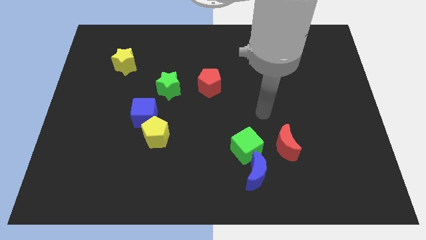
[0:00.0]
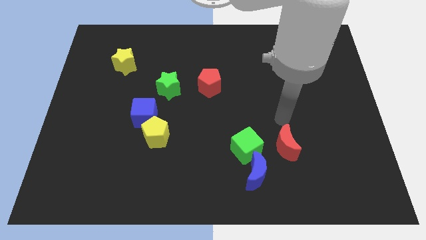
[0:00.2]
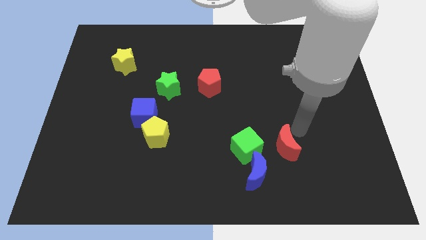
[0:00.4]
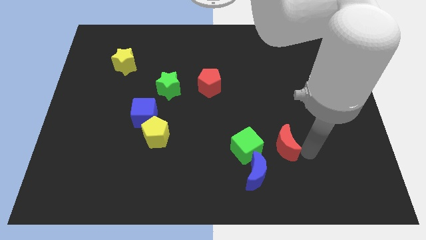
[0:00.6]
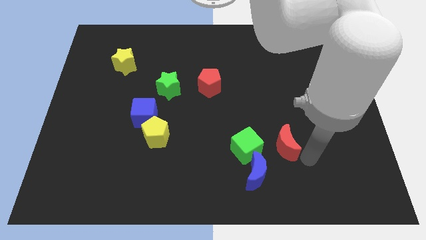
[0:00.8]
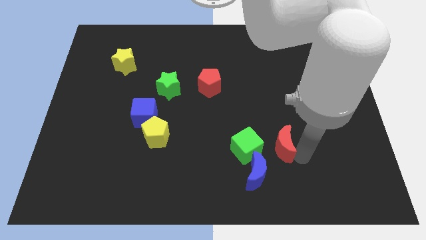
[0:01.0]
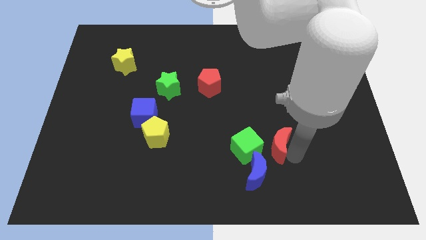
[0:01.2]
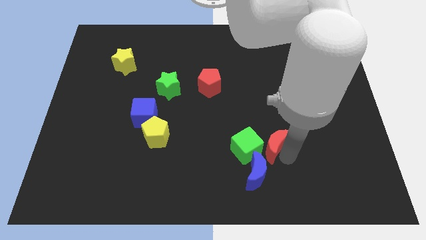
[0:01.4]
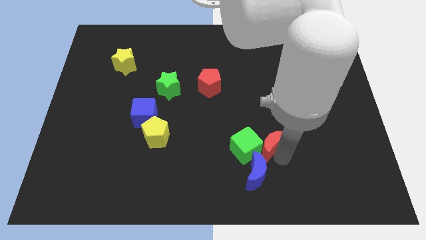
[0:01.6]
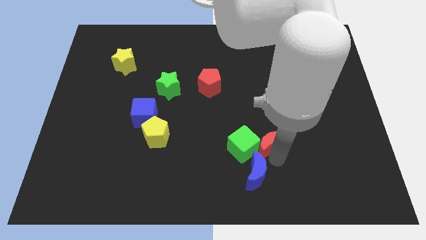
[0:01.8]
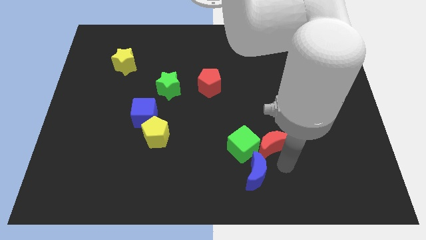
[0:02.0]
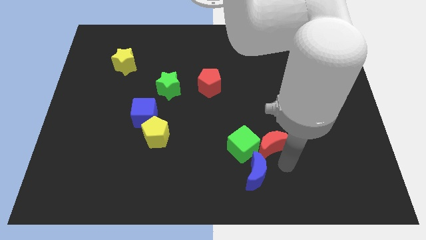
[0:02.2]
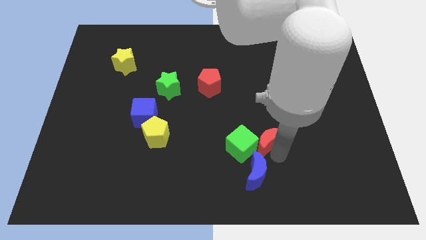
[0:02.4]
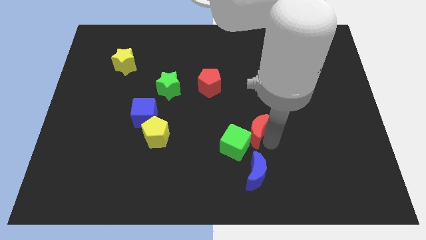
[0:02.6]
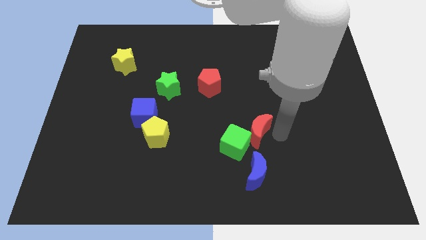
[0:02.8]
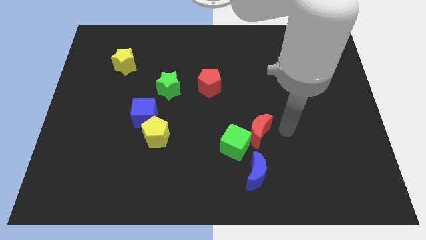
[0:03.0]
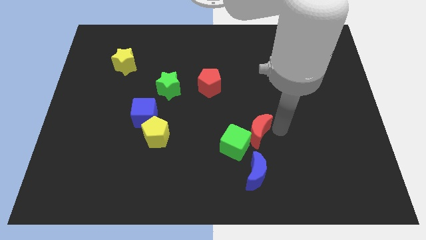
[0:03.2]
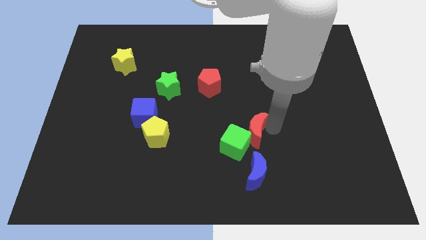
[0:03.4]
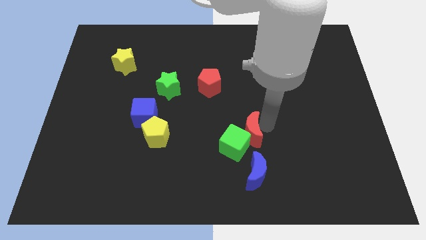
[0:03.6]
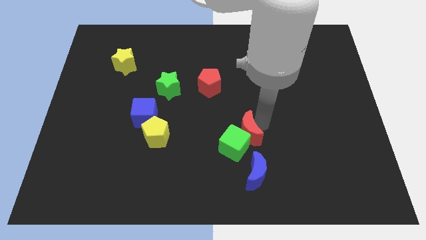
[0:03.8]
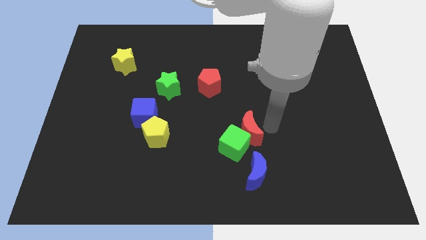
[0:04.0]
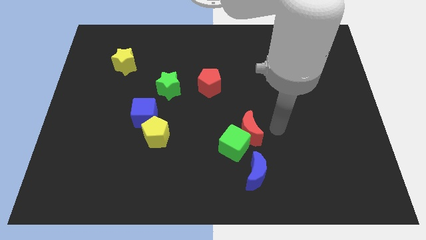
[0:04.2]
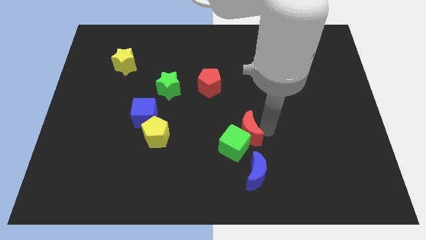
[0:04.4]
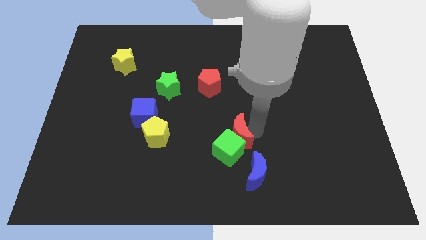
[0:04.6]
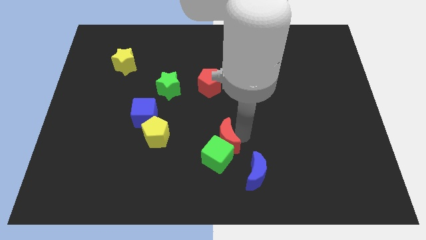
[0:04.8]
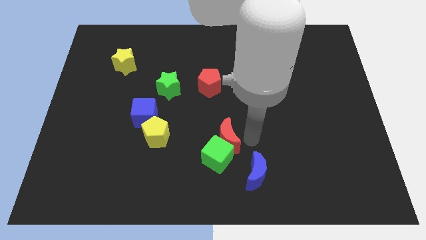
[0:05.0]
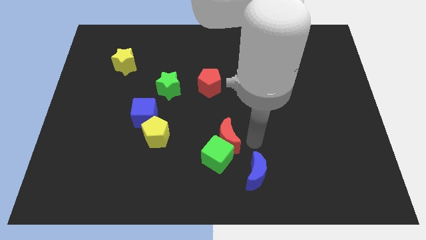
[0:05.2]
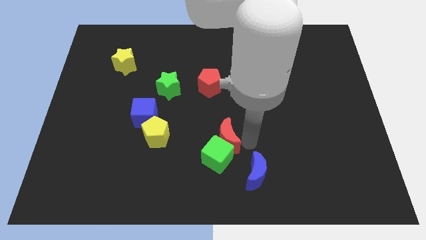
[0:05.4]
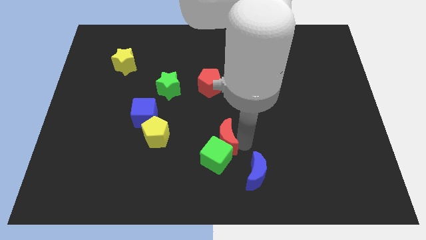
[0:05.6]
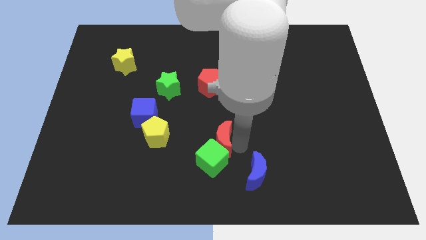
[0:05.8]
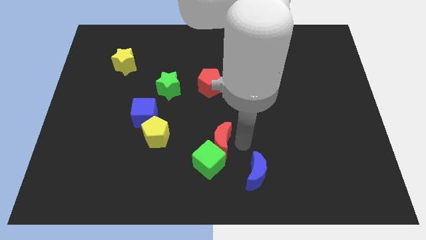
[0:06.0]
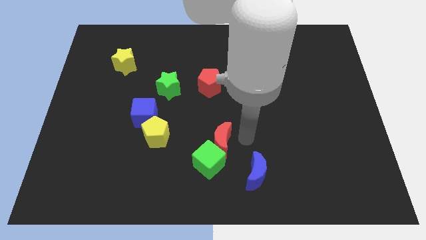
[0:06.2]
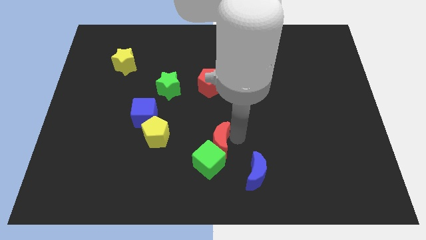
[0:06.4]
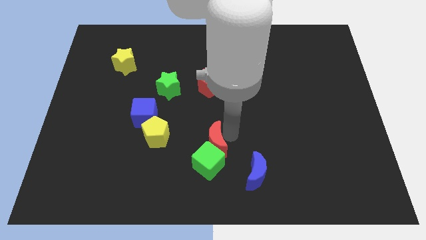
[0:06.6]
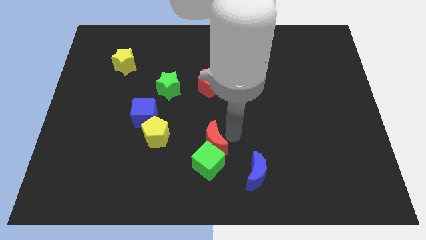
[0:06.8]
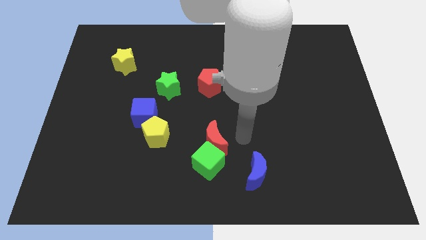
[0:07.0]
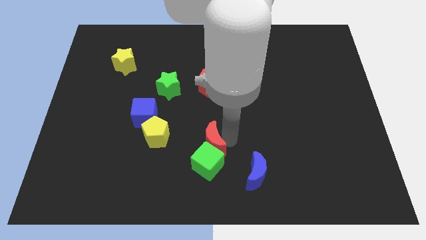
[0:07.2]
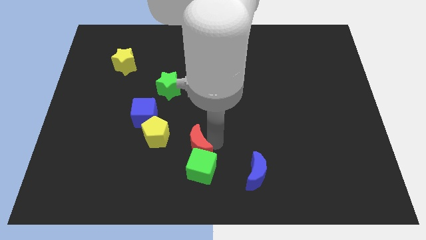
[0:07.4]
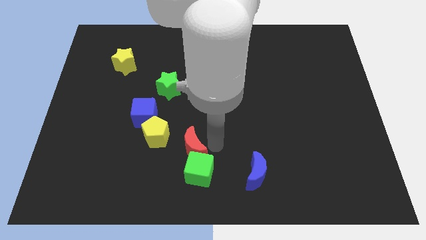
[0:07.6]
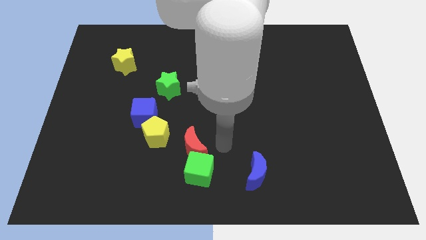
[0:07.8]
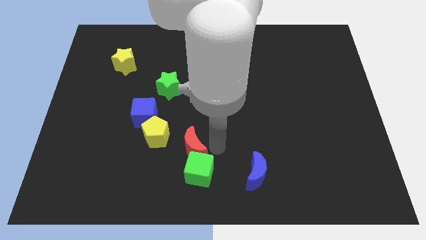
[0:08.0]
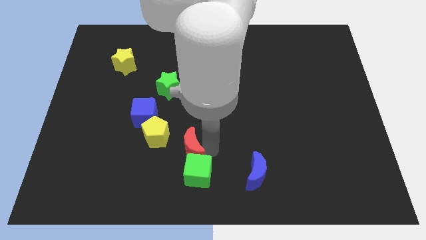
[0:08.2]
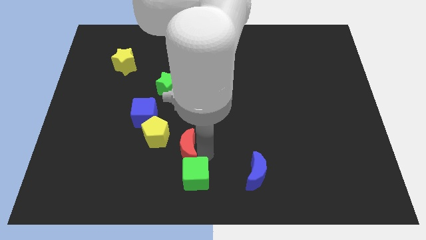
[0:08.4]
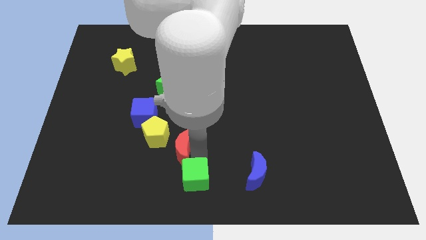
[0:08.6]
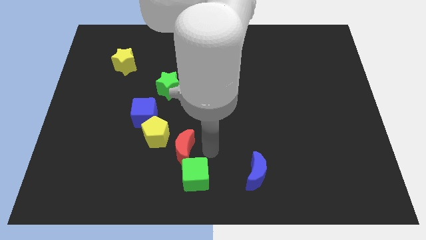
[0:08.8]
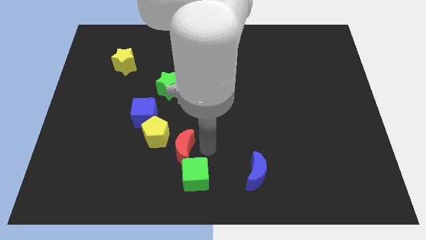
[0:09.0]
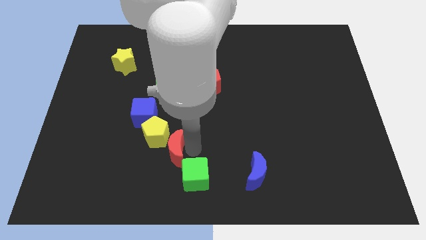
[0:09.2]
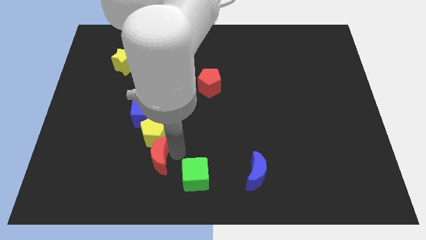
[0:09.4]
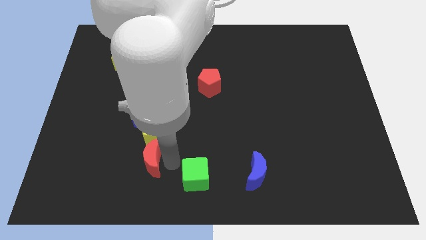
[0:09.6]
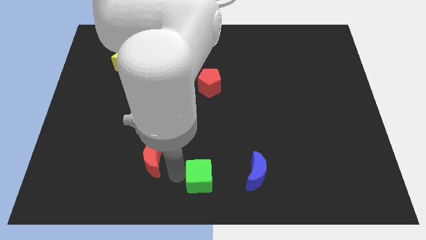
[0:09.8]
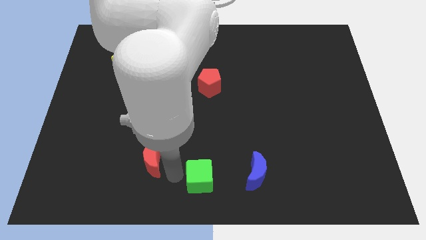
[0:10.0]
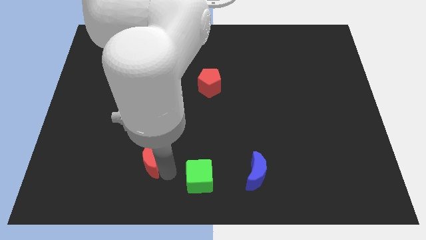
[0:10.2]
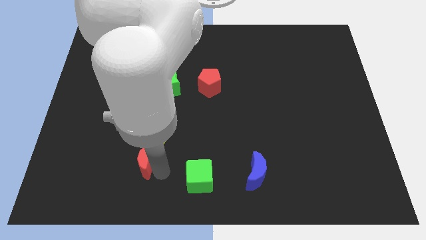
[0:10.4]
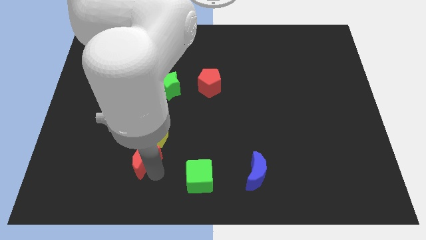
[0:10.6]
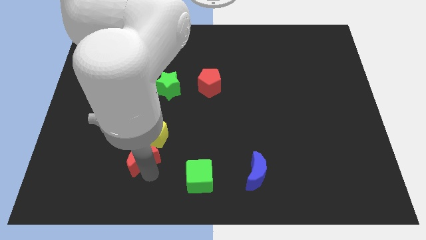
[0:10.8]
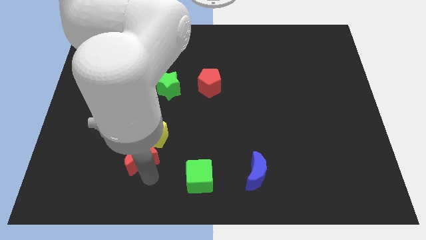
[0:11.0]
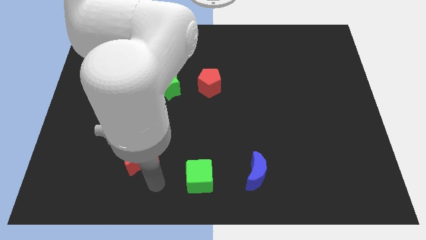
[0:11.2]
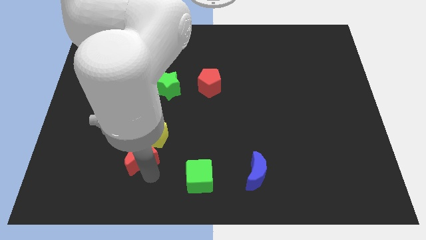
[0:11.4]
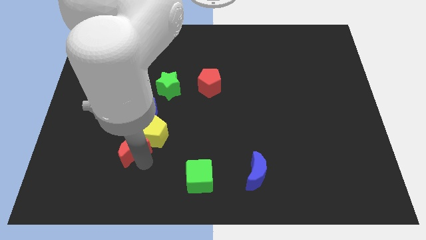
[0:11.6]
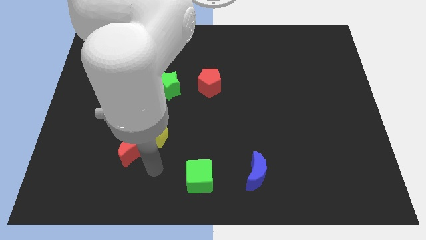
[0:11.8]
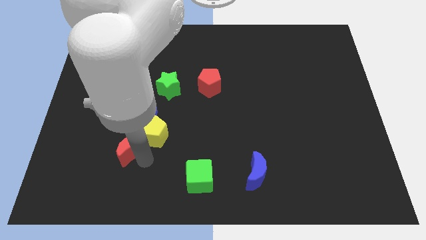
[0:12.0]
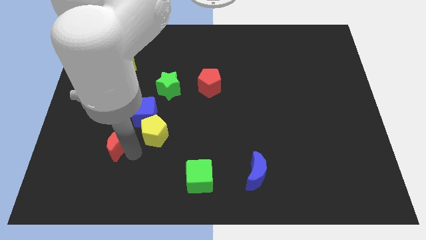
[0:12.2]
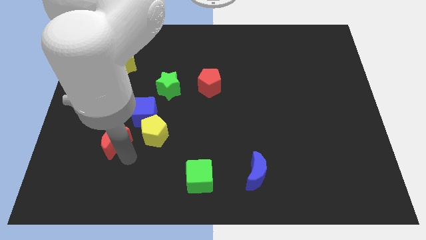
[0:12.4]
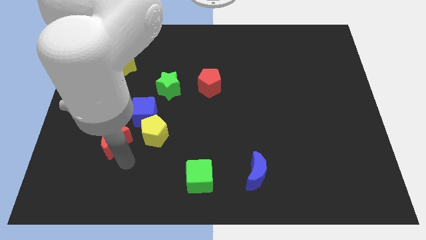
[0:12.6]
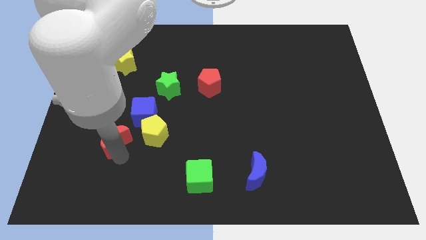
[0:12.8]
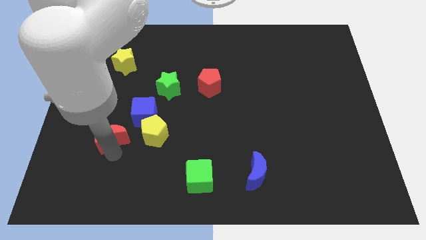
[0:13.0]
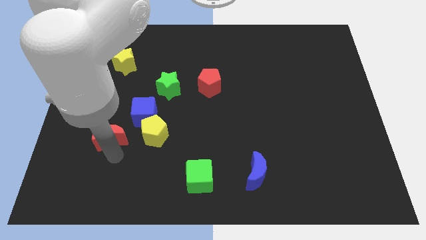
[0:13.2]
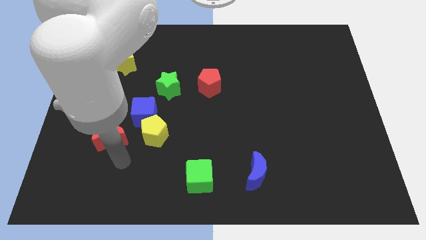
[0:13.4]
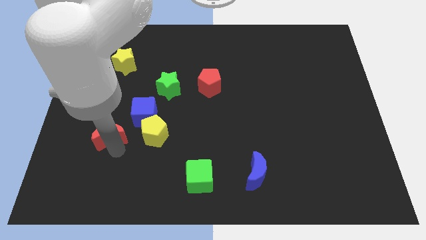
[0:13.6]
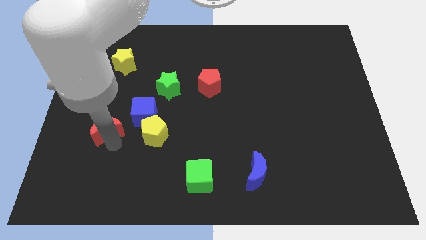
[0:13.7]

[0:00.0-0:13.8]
put the red moon just left of the blue cube
